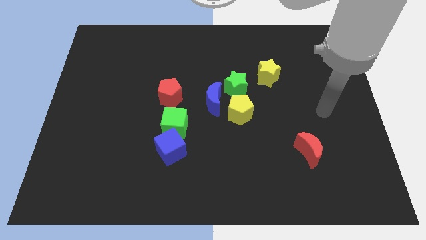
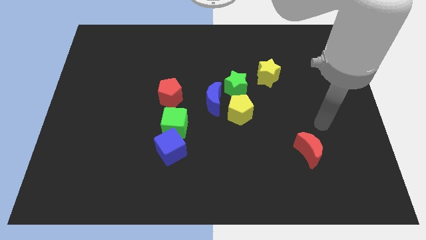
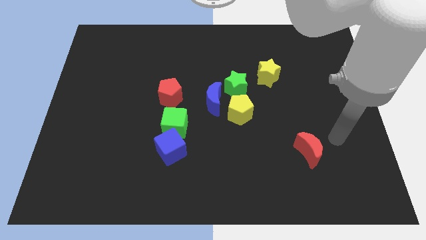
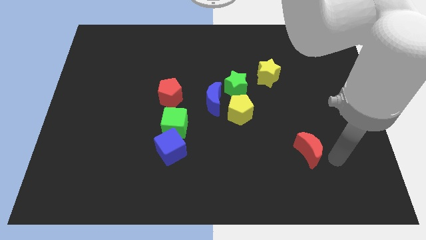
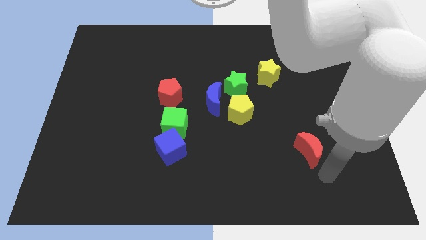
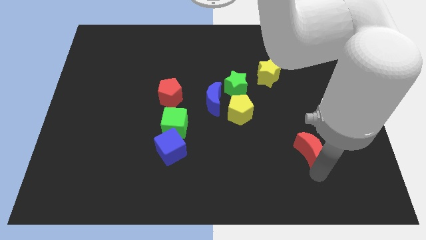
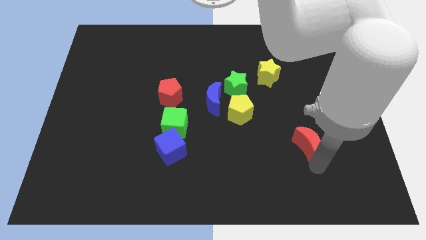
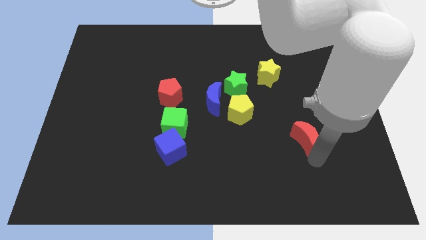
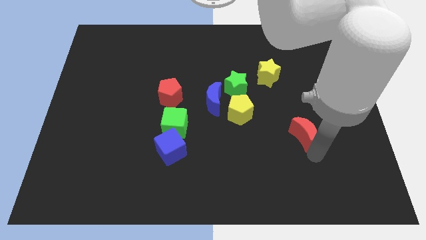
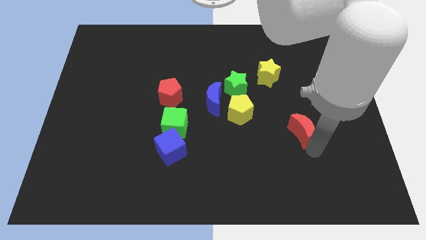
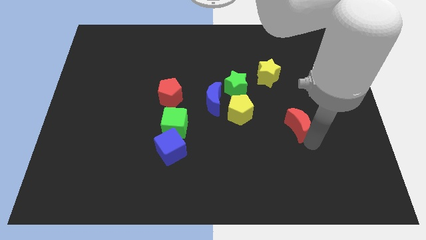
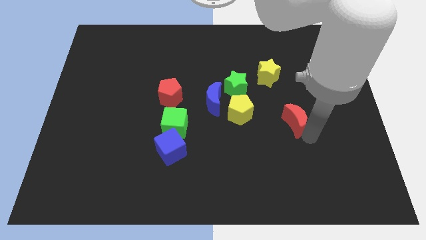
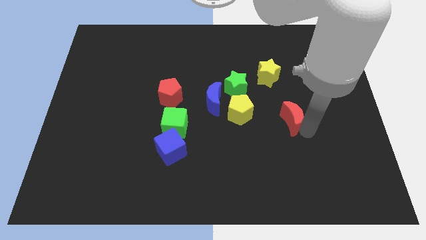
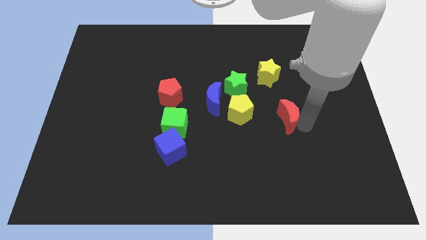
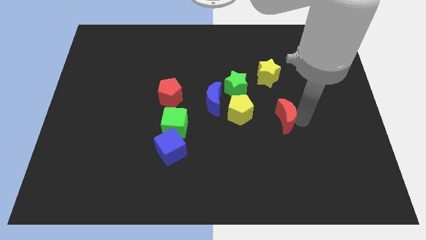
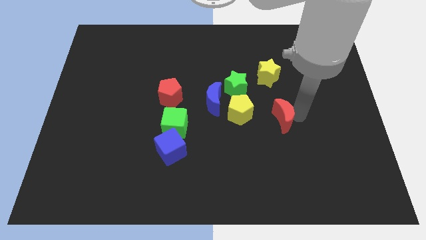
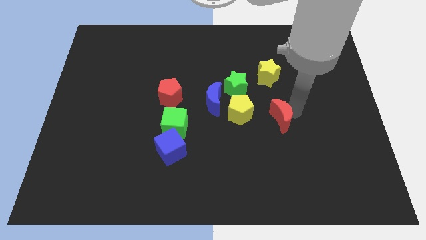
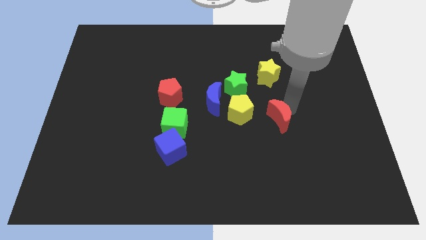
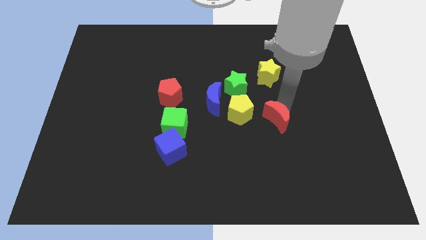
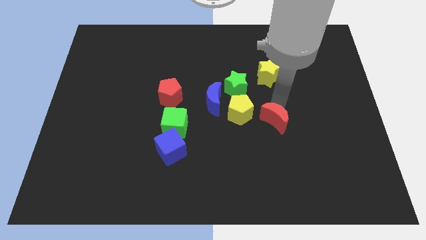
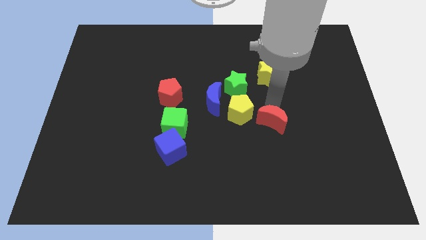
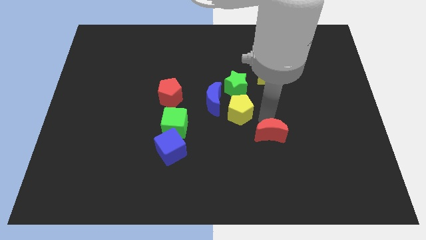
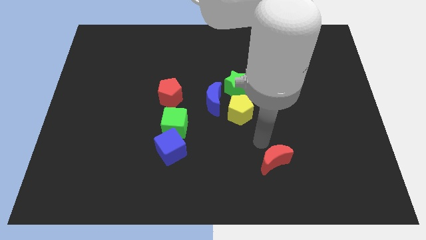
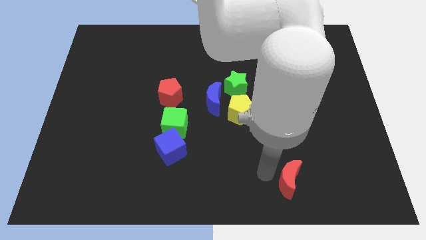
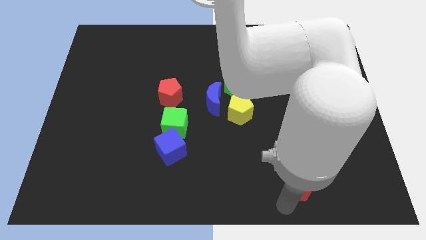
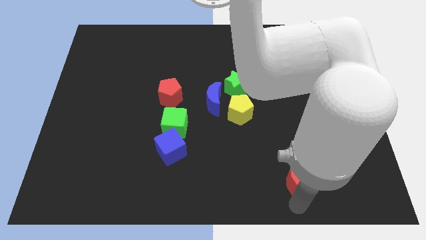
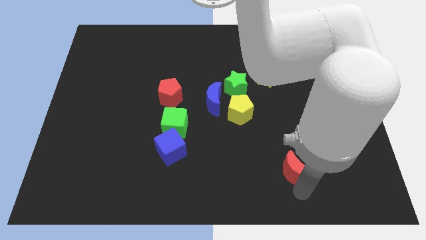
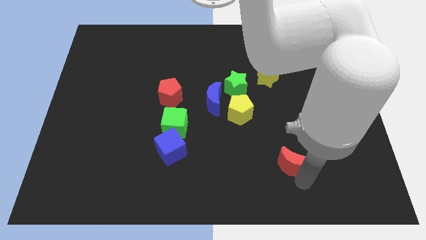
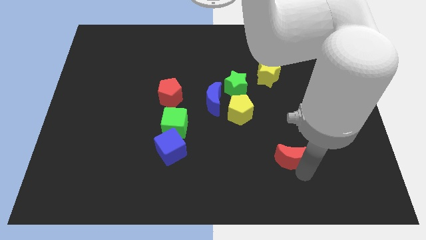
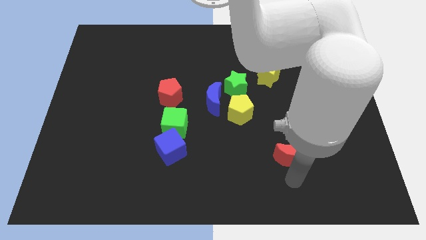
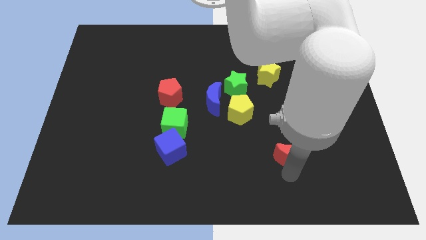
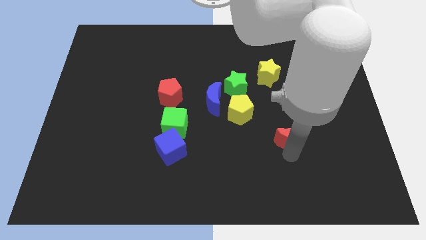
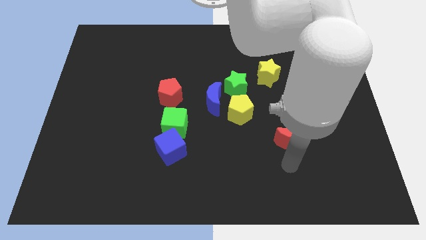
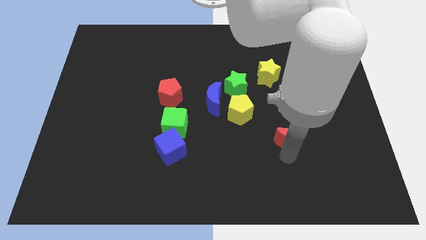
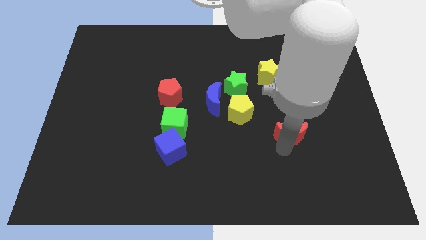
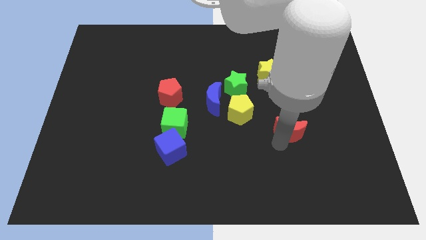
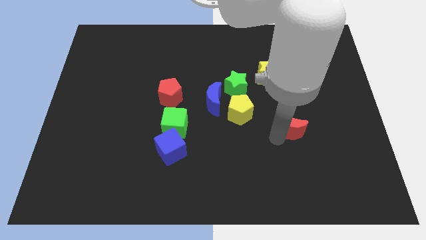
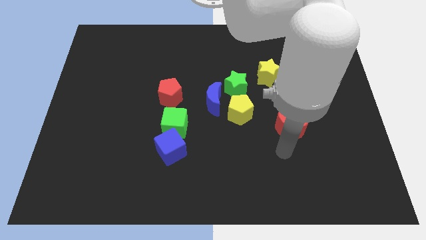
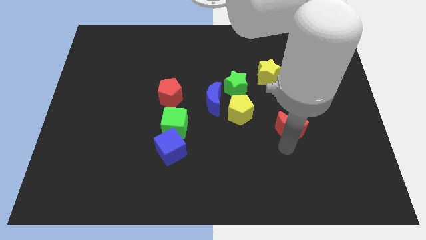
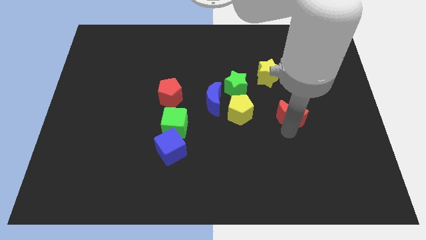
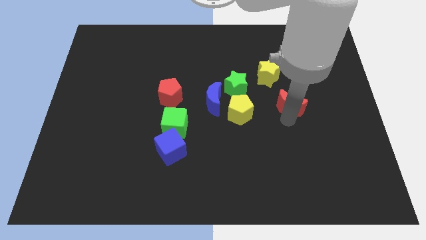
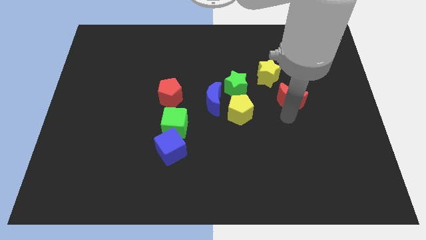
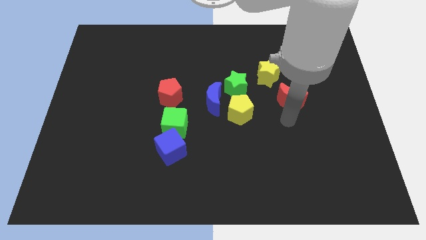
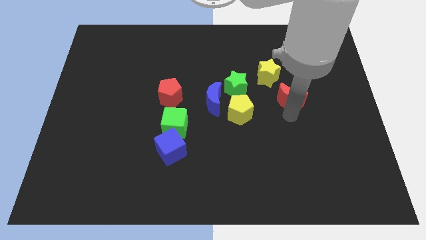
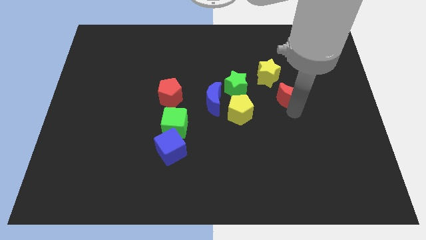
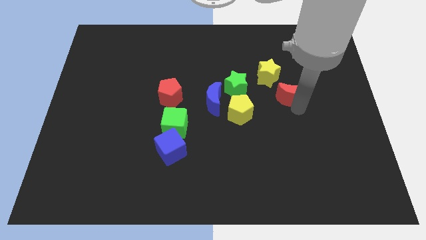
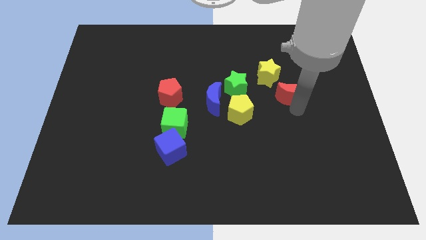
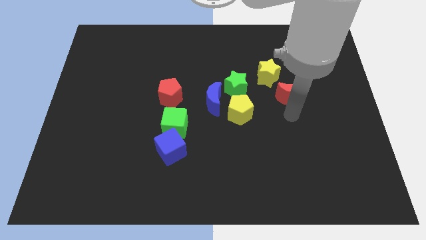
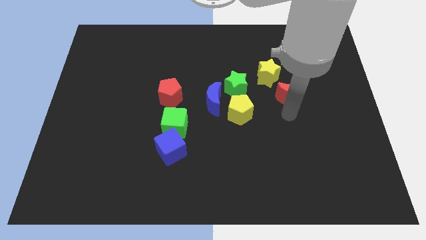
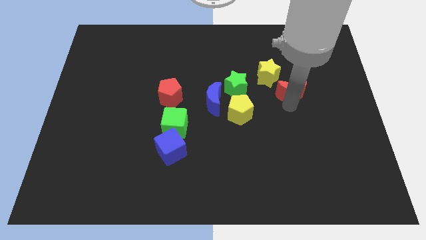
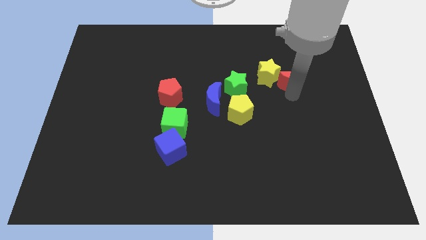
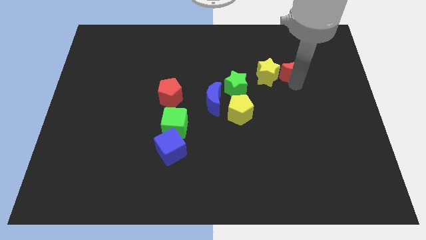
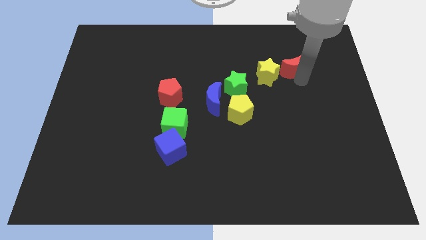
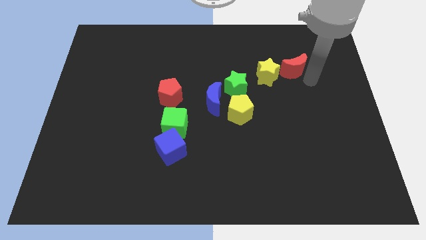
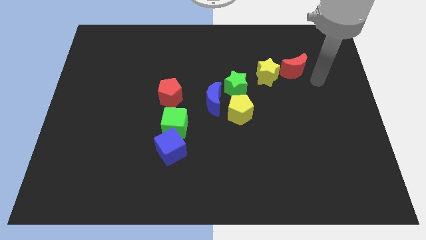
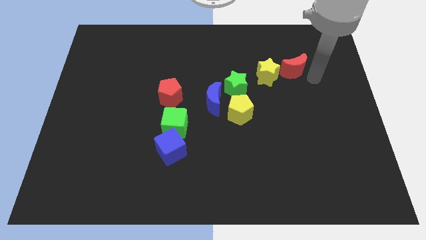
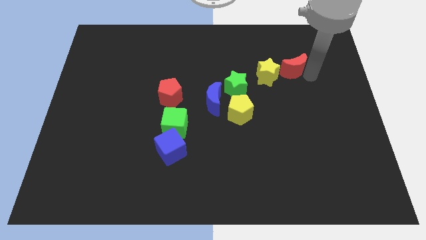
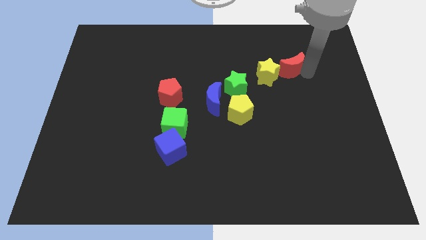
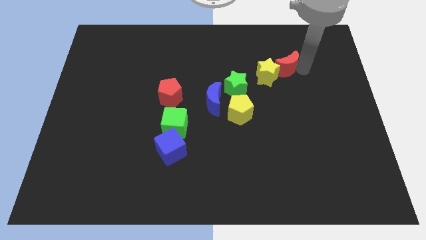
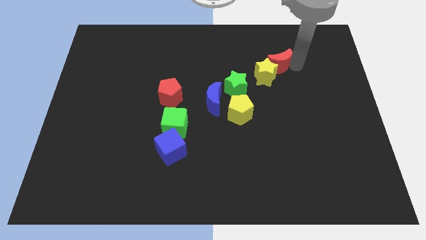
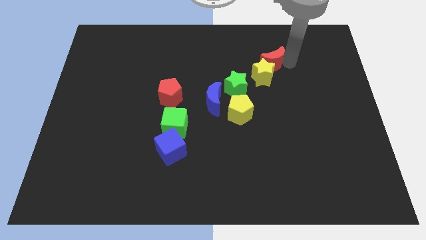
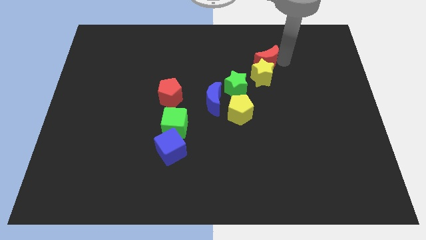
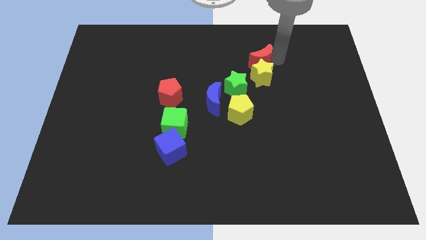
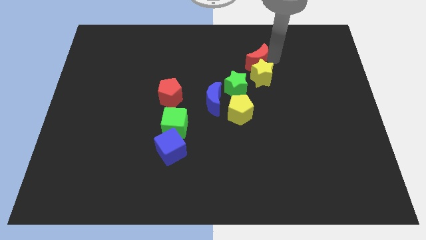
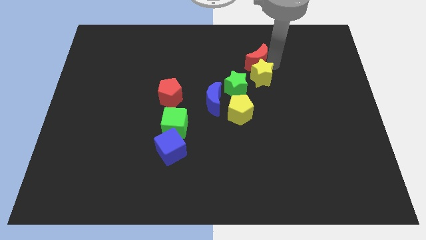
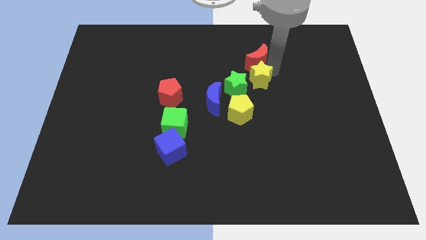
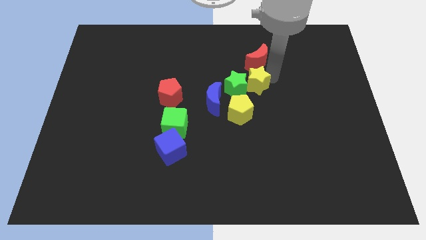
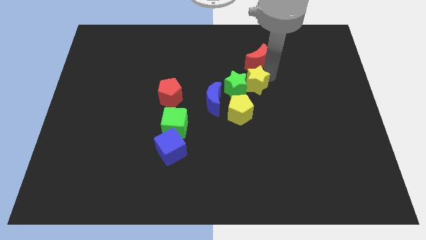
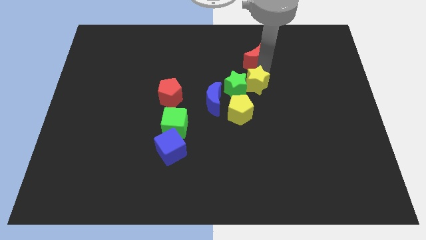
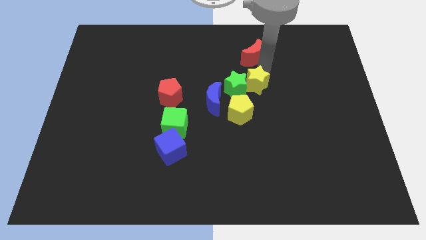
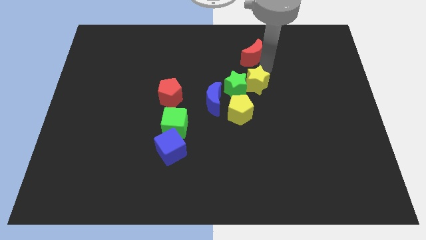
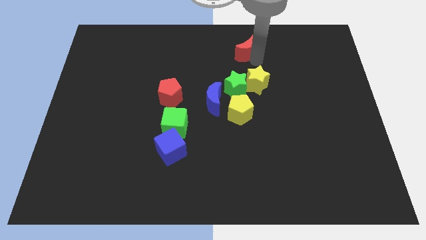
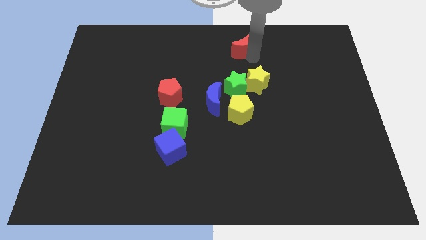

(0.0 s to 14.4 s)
push the red moon to the towards your base
